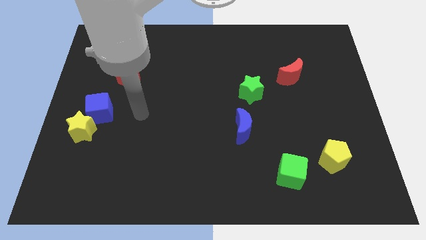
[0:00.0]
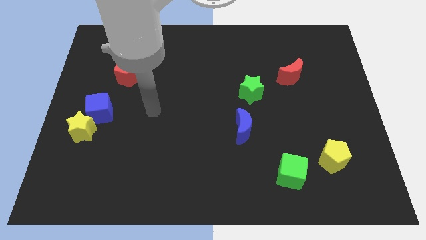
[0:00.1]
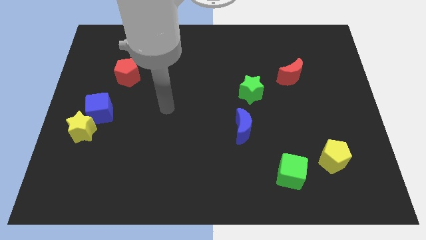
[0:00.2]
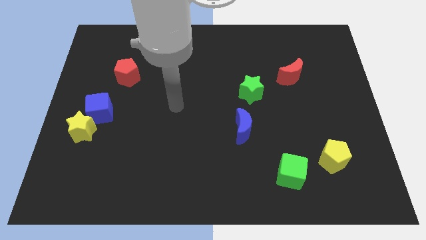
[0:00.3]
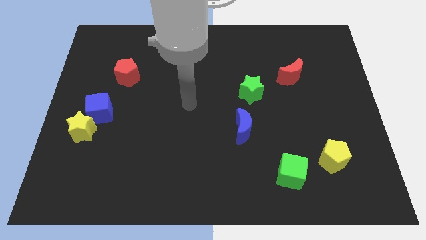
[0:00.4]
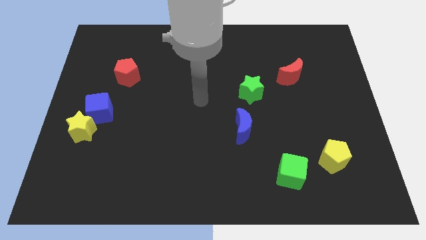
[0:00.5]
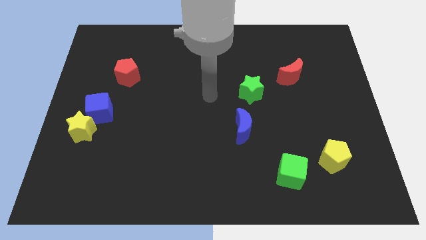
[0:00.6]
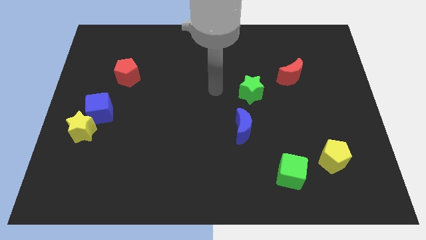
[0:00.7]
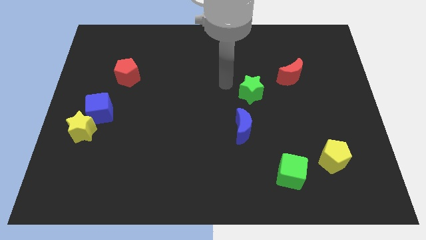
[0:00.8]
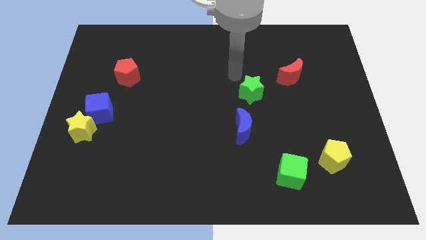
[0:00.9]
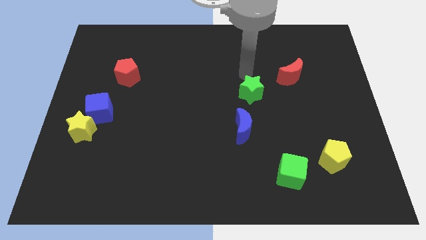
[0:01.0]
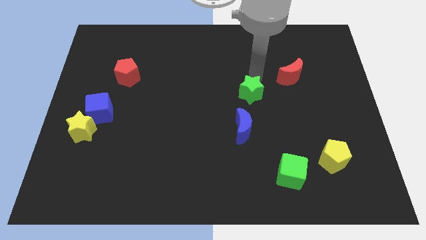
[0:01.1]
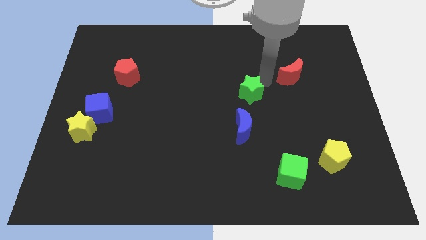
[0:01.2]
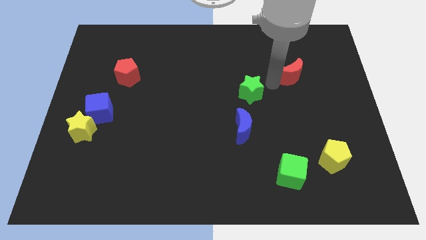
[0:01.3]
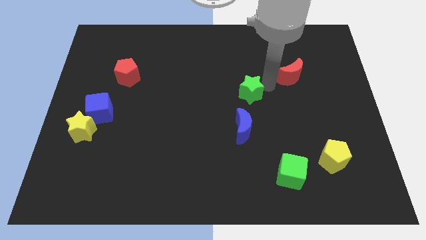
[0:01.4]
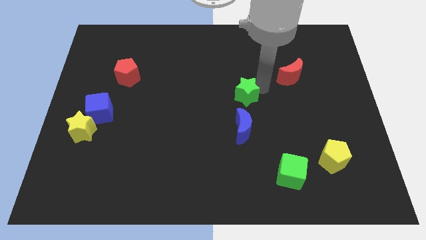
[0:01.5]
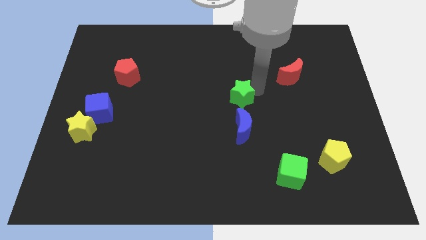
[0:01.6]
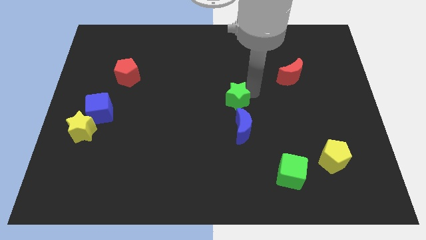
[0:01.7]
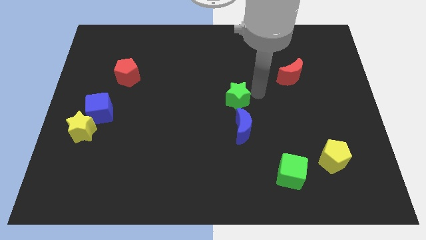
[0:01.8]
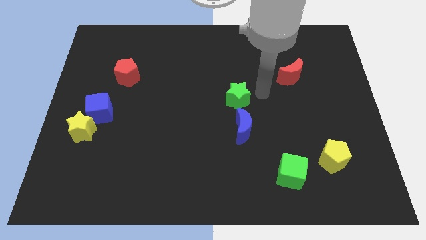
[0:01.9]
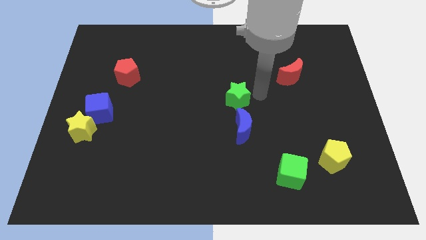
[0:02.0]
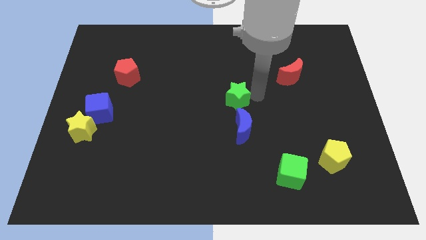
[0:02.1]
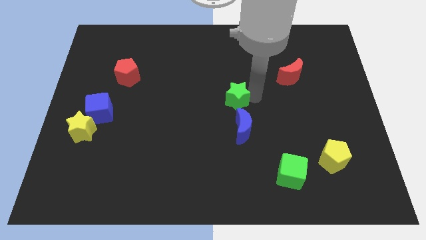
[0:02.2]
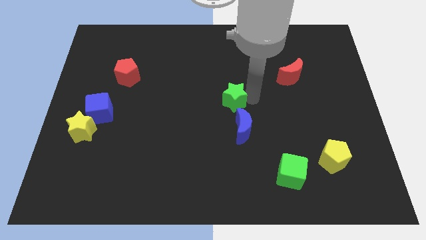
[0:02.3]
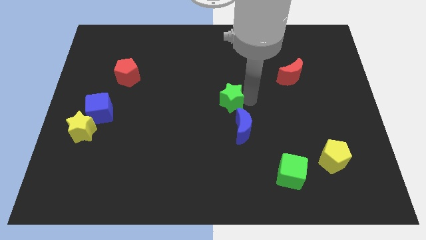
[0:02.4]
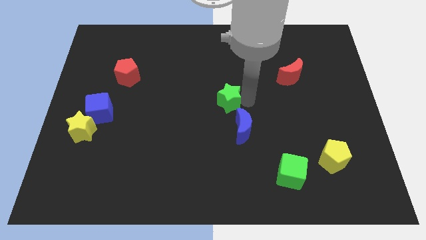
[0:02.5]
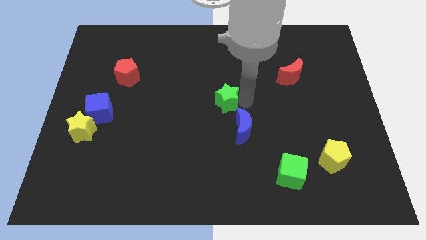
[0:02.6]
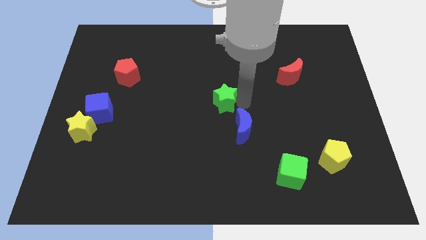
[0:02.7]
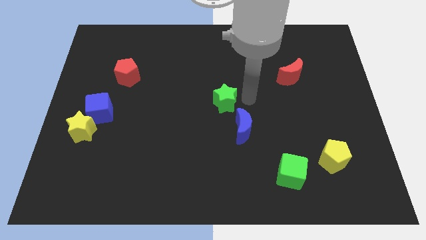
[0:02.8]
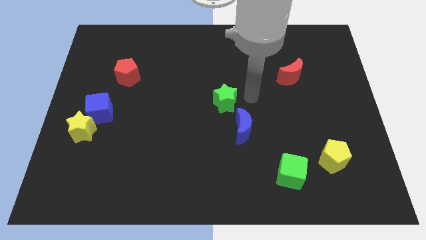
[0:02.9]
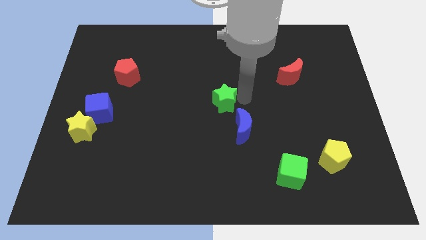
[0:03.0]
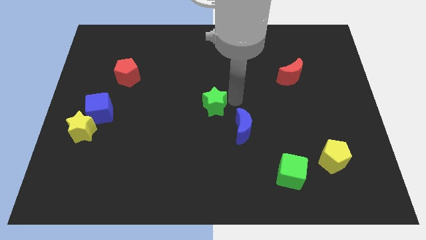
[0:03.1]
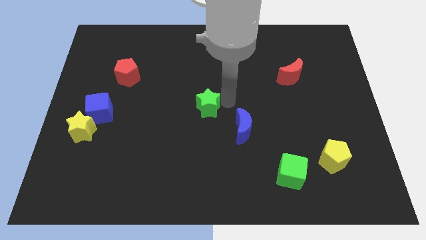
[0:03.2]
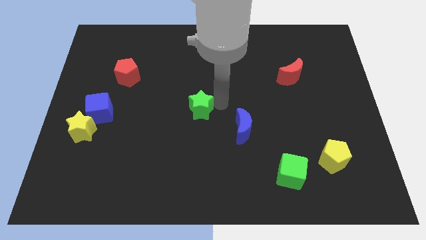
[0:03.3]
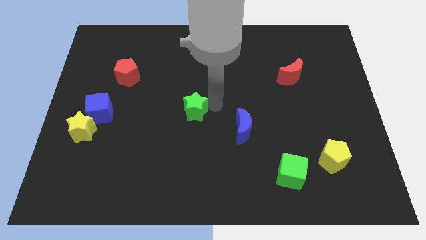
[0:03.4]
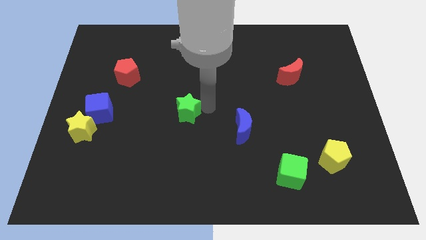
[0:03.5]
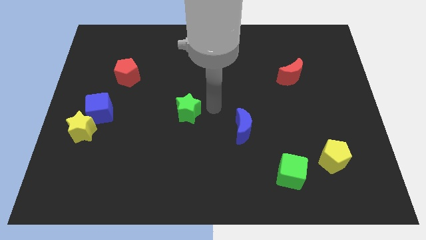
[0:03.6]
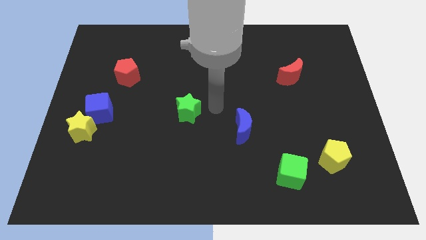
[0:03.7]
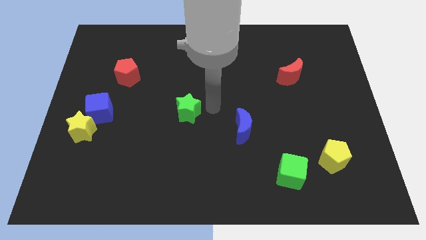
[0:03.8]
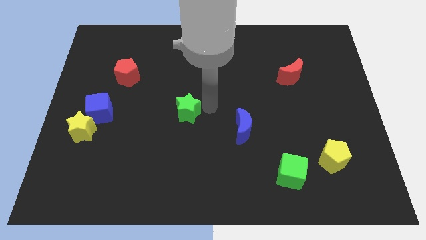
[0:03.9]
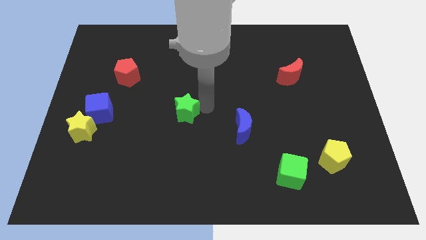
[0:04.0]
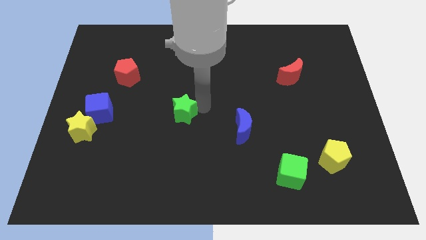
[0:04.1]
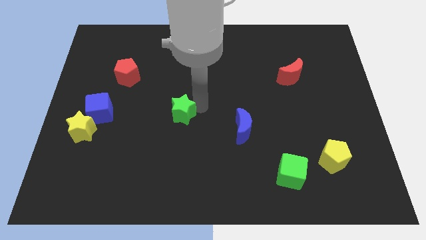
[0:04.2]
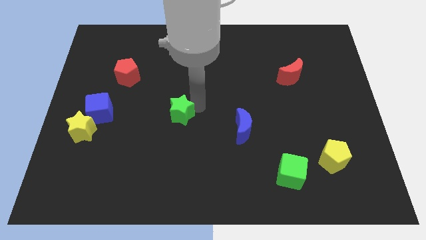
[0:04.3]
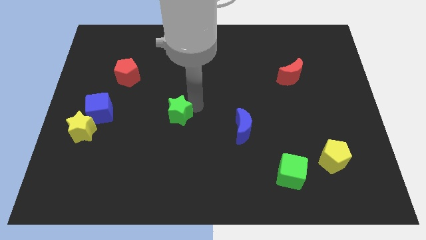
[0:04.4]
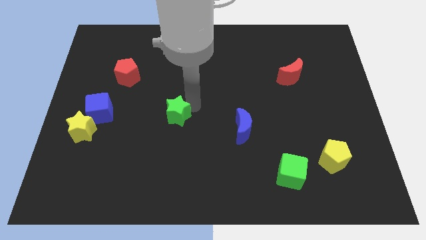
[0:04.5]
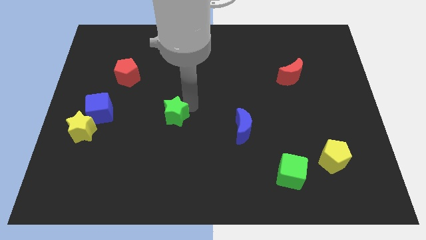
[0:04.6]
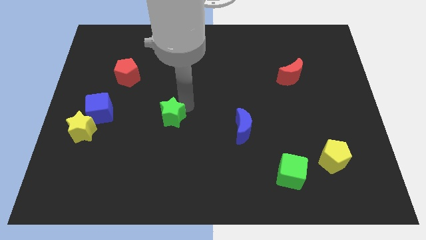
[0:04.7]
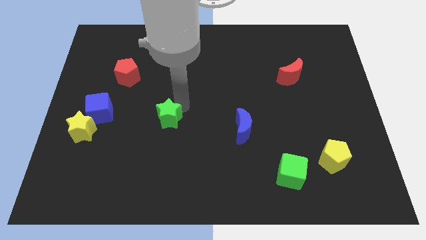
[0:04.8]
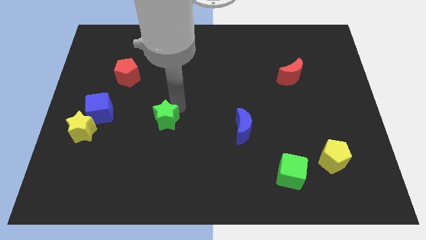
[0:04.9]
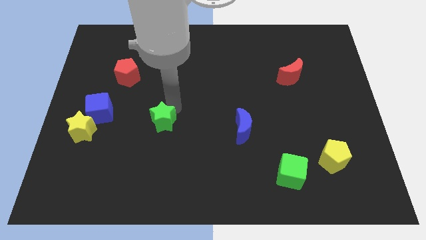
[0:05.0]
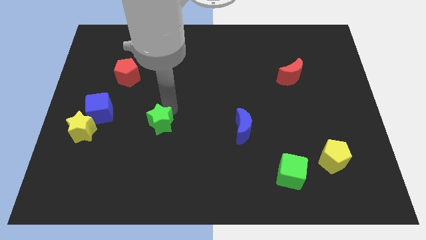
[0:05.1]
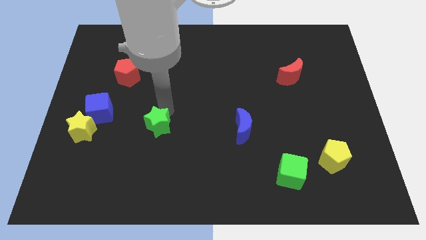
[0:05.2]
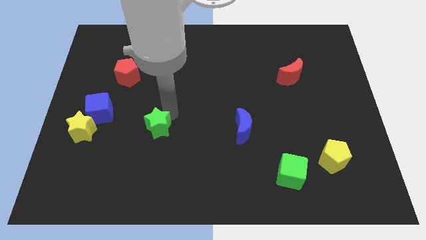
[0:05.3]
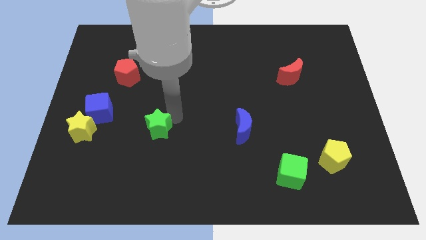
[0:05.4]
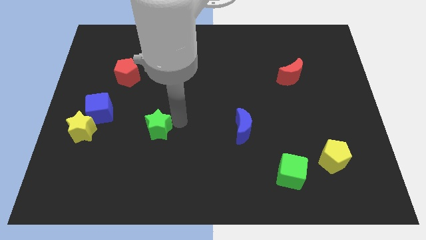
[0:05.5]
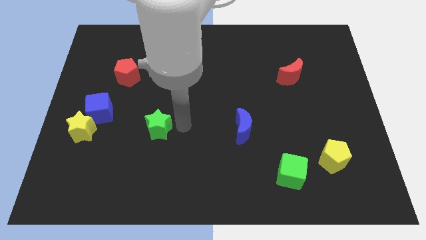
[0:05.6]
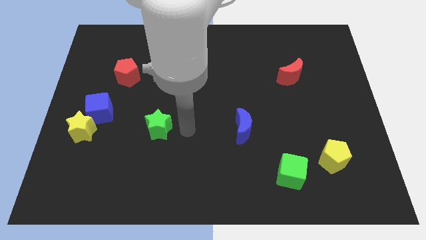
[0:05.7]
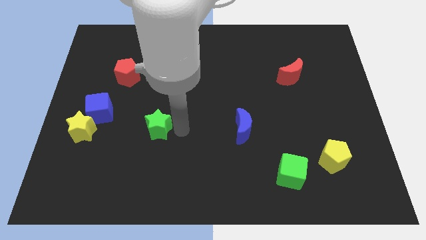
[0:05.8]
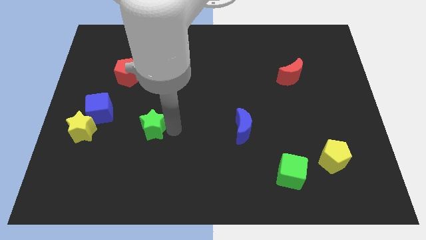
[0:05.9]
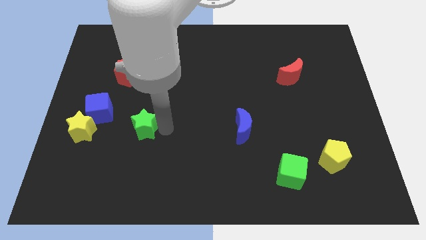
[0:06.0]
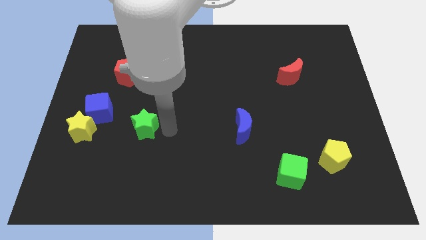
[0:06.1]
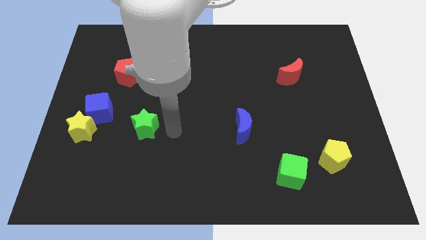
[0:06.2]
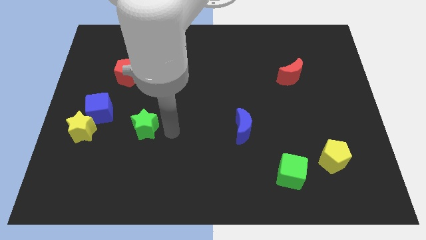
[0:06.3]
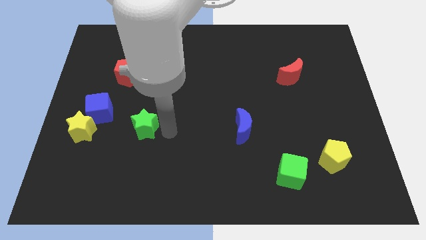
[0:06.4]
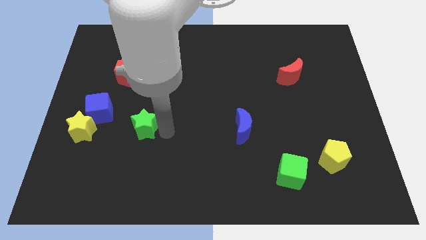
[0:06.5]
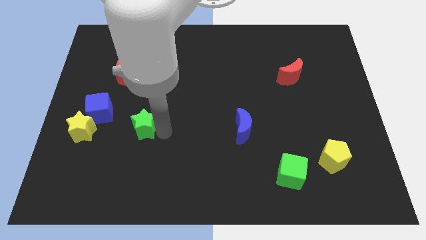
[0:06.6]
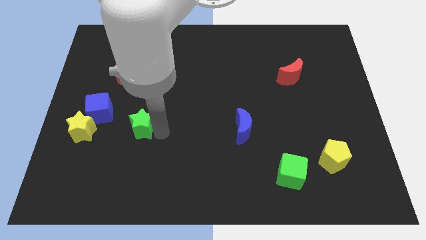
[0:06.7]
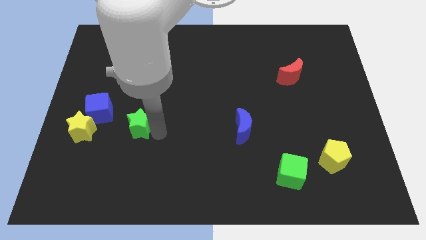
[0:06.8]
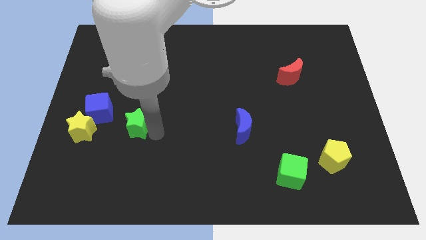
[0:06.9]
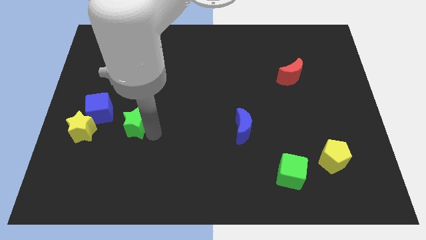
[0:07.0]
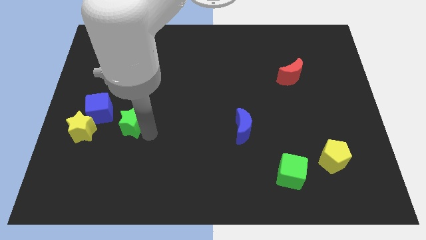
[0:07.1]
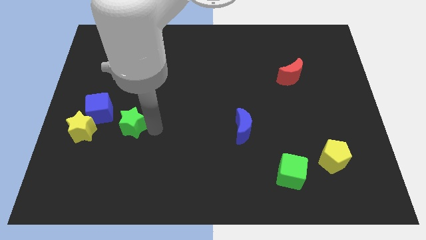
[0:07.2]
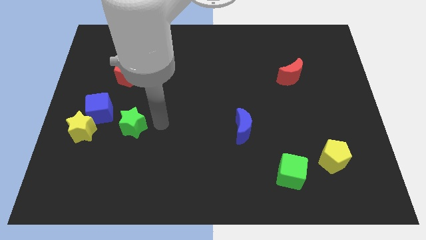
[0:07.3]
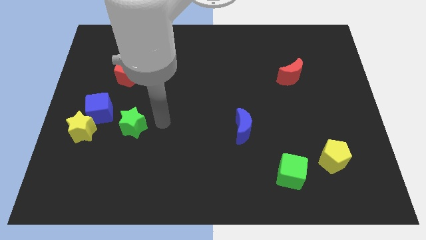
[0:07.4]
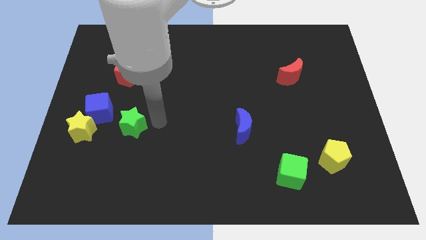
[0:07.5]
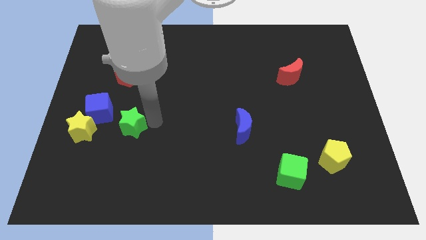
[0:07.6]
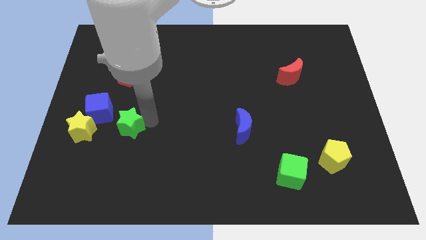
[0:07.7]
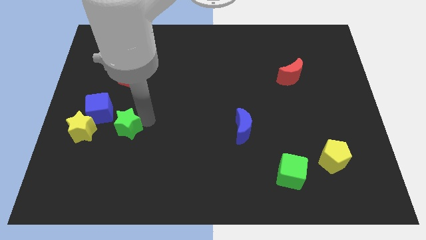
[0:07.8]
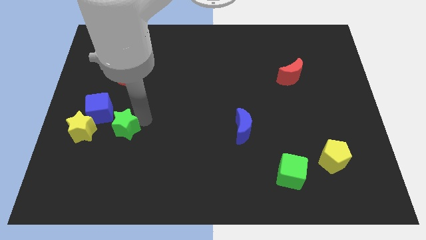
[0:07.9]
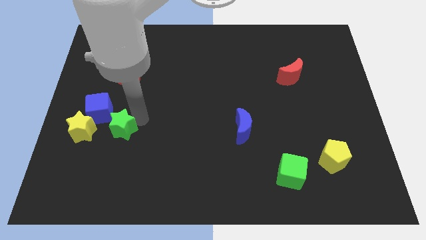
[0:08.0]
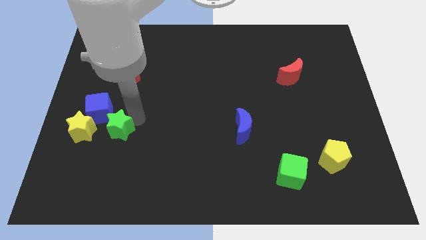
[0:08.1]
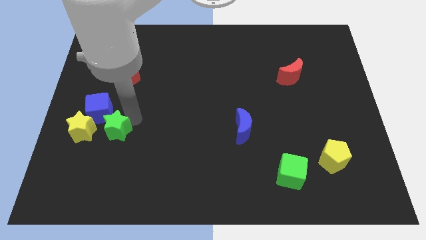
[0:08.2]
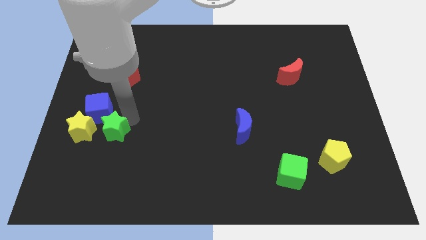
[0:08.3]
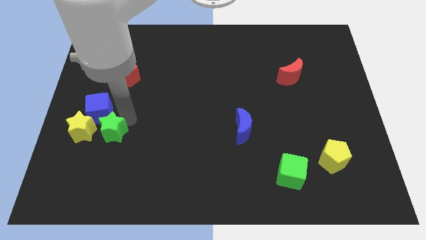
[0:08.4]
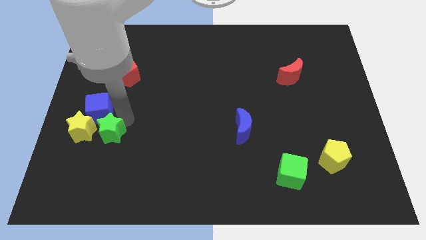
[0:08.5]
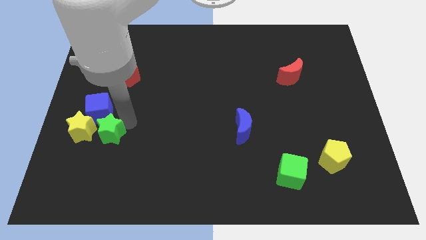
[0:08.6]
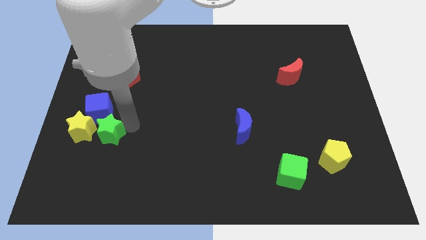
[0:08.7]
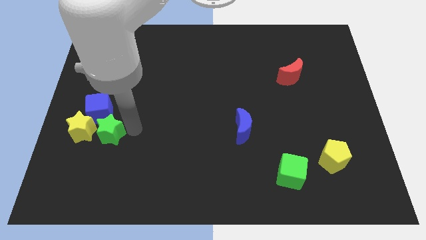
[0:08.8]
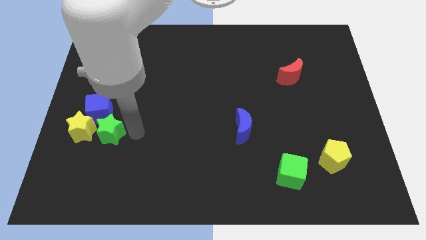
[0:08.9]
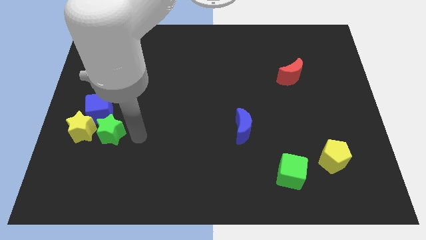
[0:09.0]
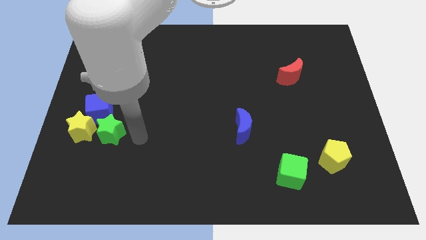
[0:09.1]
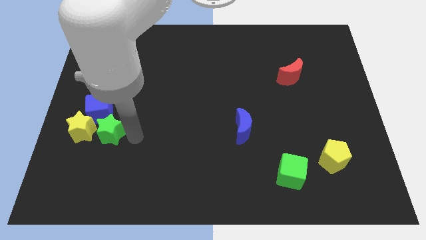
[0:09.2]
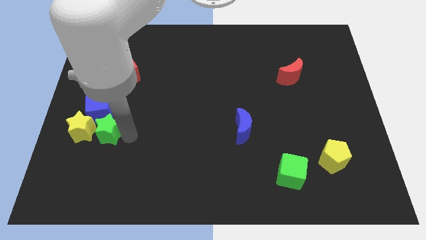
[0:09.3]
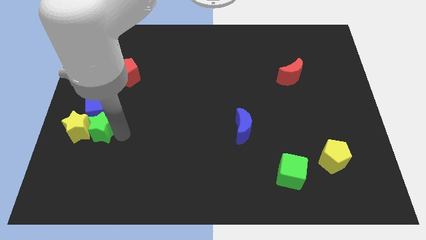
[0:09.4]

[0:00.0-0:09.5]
move the green star close to the yellow star
